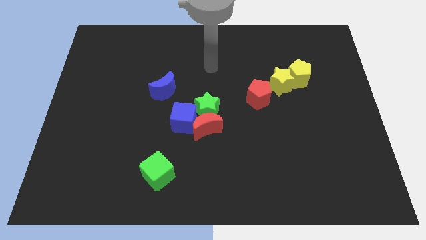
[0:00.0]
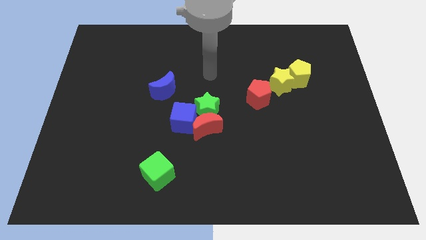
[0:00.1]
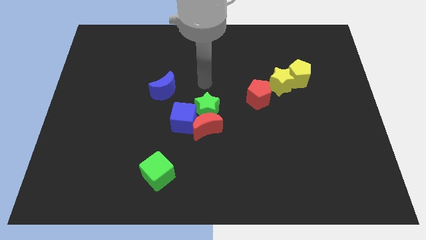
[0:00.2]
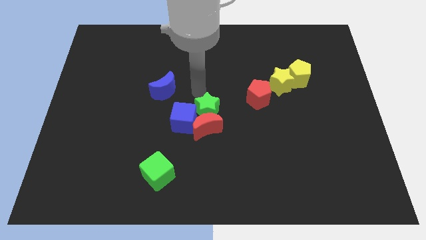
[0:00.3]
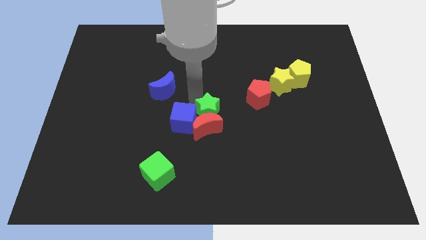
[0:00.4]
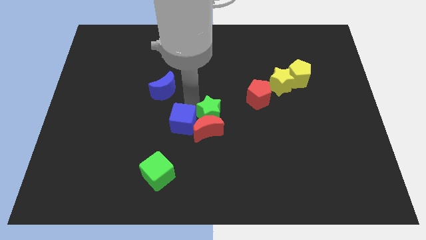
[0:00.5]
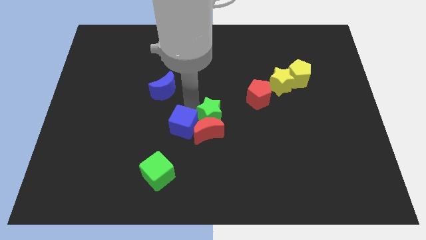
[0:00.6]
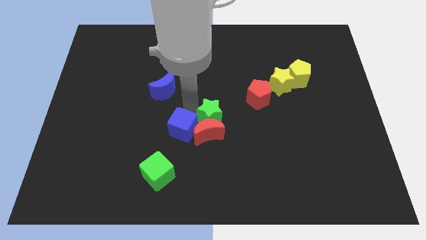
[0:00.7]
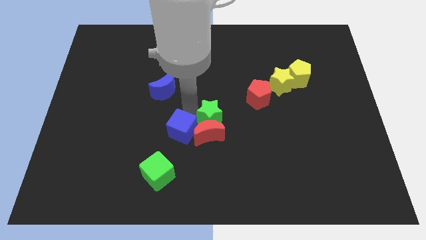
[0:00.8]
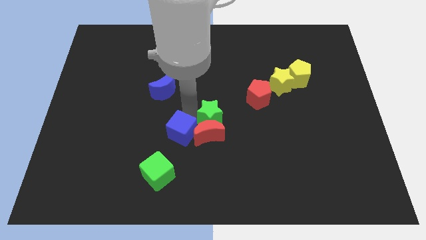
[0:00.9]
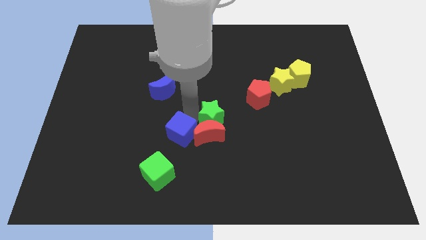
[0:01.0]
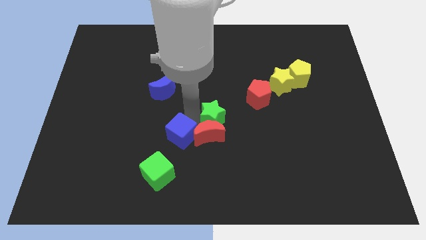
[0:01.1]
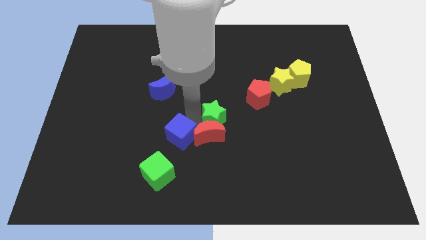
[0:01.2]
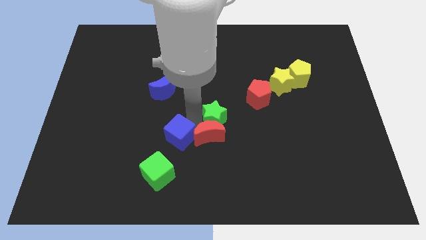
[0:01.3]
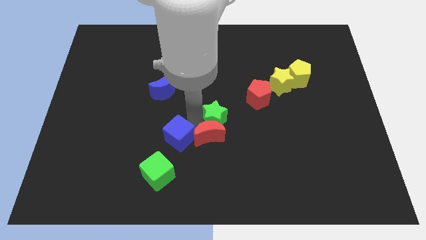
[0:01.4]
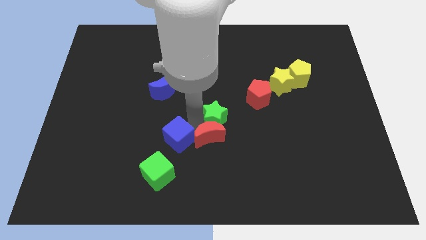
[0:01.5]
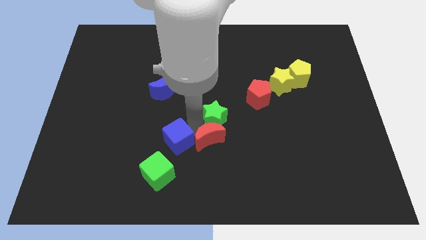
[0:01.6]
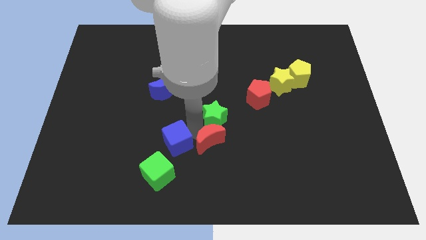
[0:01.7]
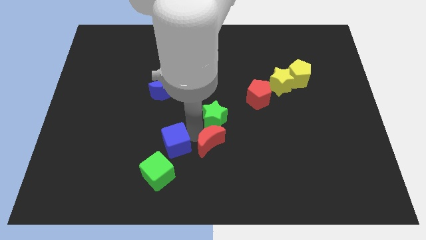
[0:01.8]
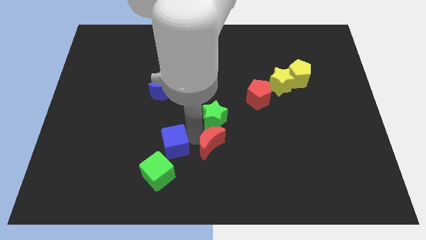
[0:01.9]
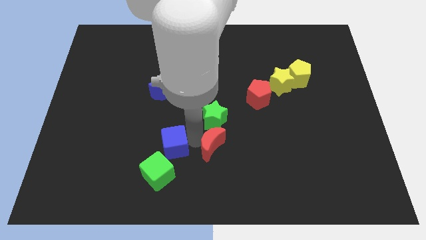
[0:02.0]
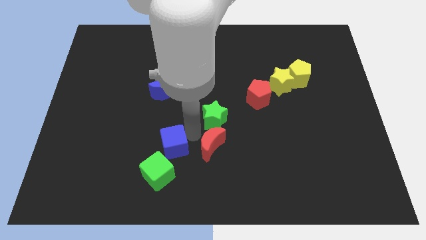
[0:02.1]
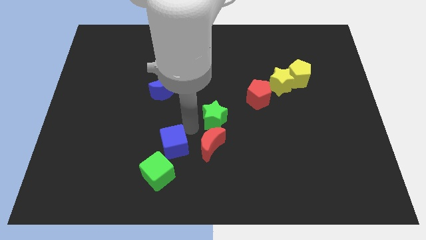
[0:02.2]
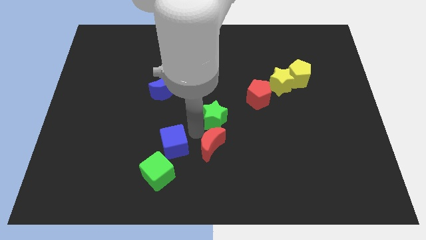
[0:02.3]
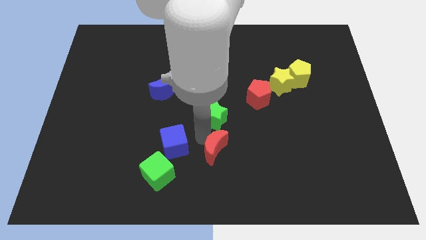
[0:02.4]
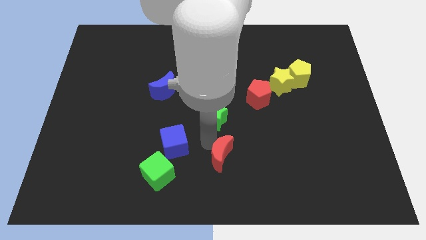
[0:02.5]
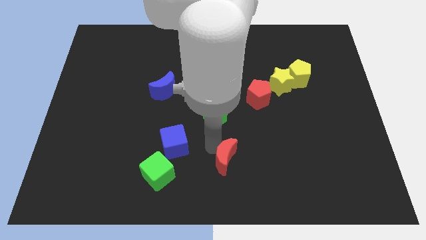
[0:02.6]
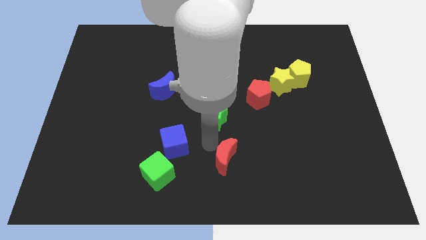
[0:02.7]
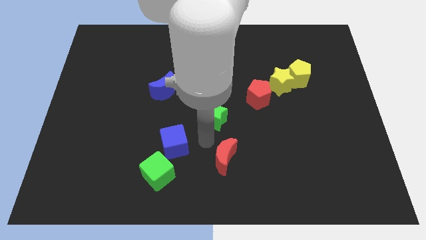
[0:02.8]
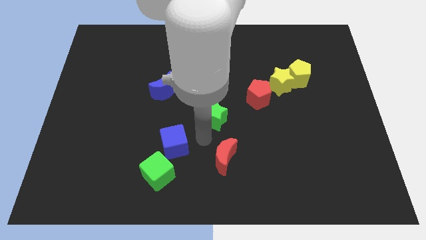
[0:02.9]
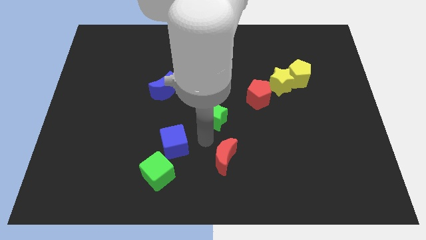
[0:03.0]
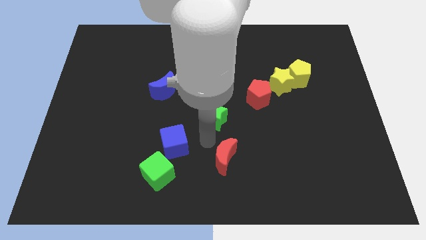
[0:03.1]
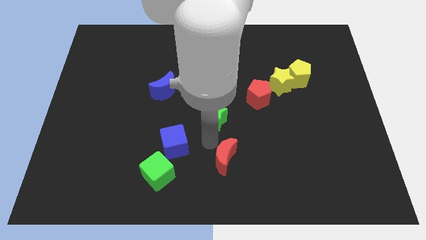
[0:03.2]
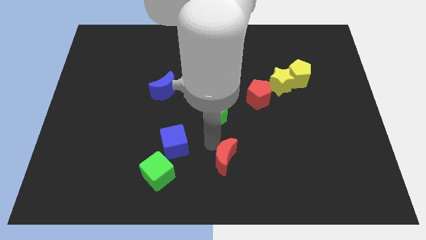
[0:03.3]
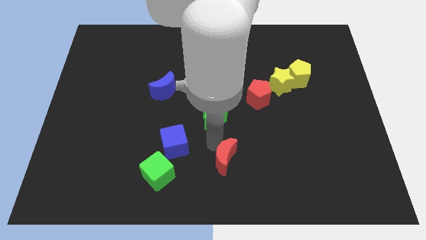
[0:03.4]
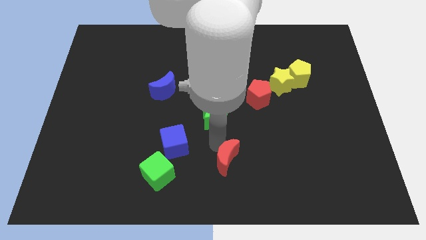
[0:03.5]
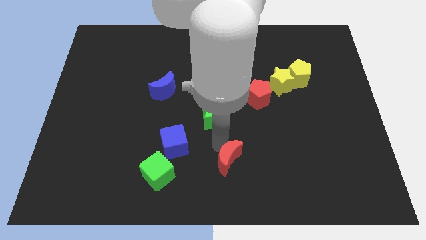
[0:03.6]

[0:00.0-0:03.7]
separate the red moon from the green star and blue cube

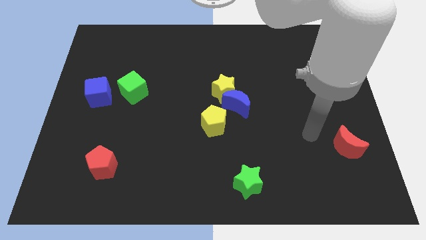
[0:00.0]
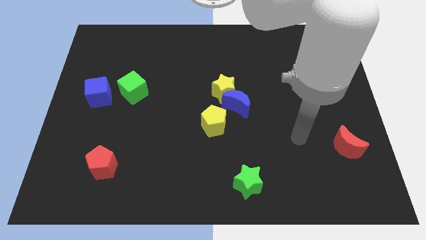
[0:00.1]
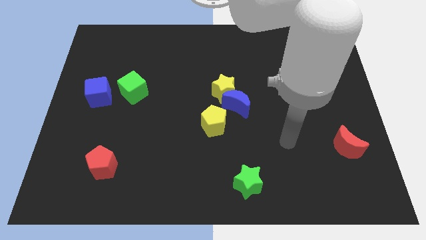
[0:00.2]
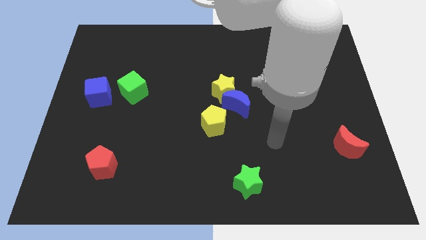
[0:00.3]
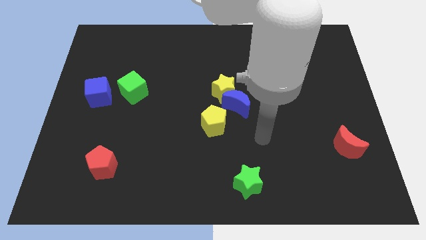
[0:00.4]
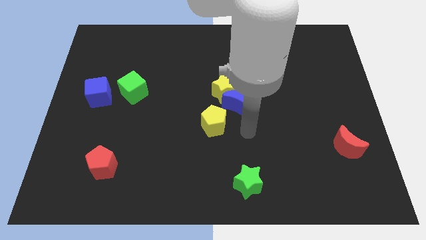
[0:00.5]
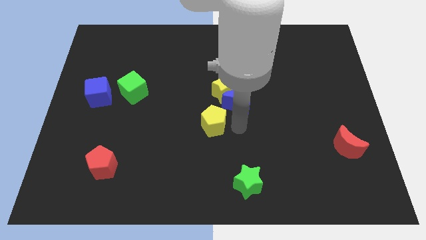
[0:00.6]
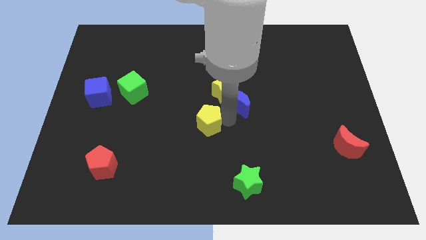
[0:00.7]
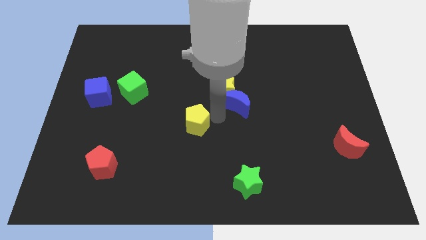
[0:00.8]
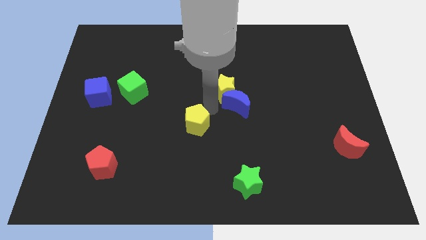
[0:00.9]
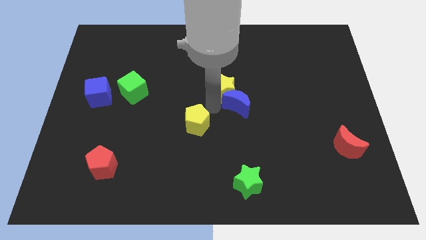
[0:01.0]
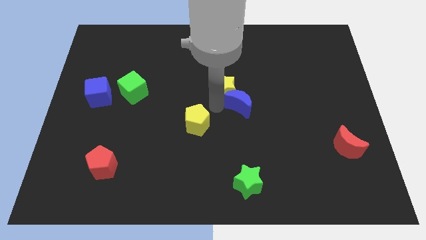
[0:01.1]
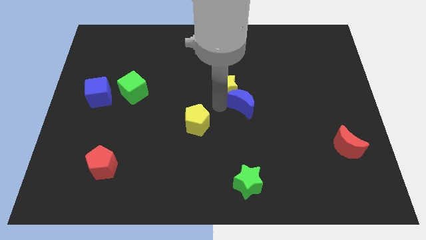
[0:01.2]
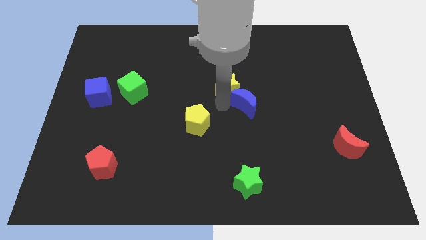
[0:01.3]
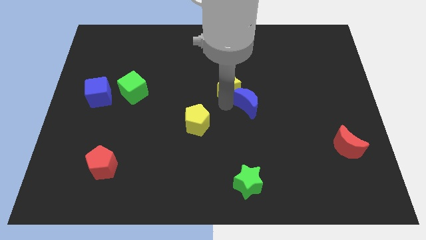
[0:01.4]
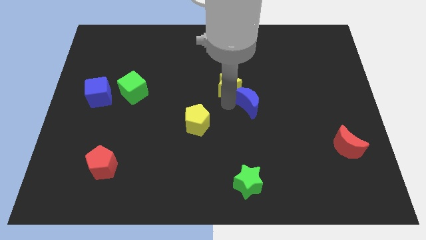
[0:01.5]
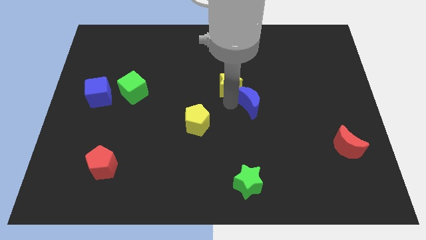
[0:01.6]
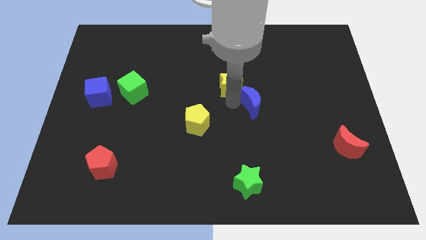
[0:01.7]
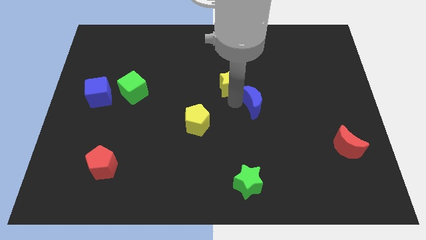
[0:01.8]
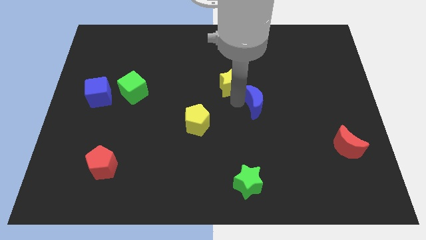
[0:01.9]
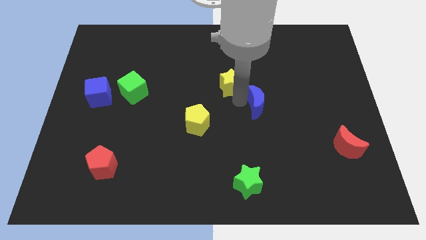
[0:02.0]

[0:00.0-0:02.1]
pull the blue moon apart from the yellow star and yellow pentagon

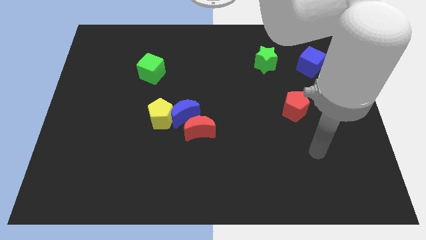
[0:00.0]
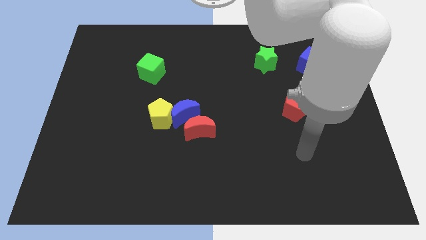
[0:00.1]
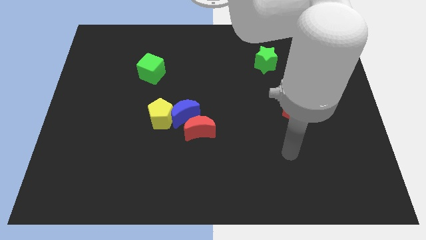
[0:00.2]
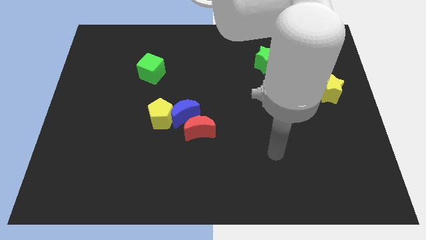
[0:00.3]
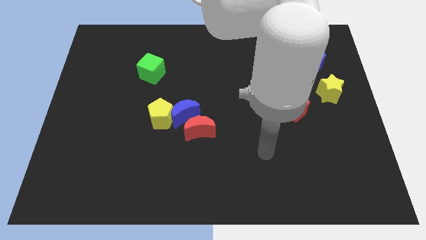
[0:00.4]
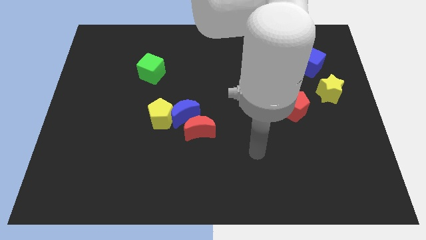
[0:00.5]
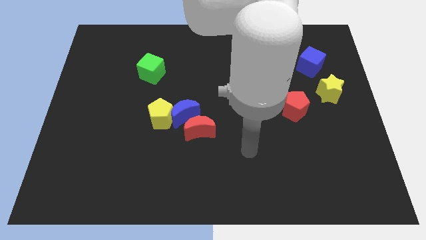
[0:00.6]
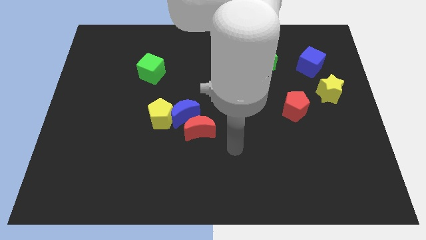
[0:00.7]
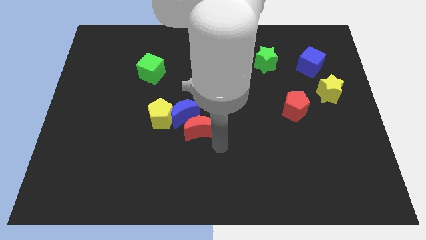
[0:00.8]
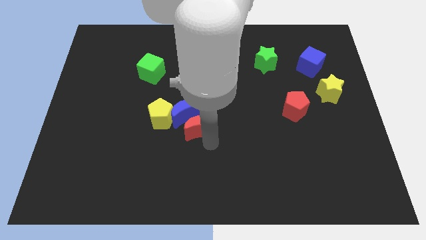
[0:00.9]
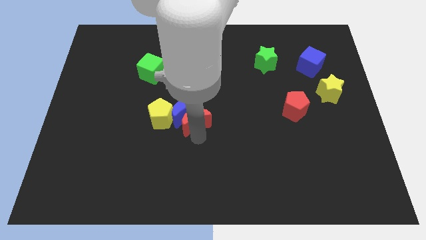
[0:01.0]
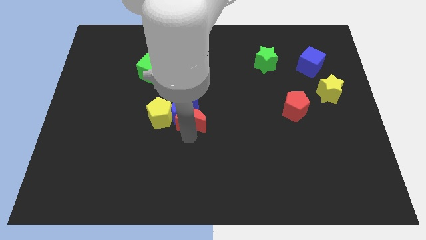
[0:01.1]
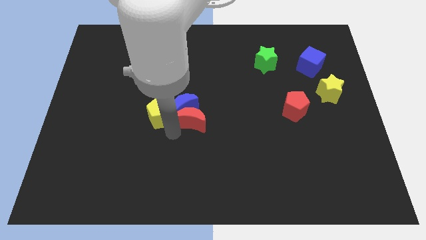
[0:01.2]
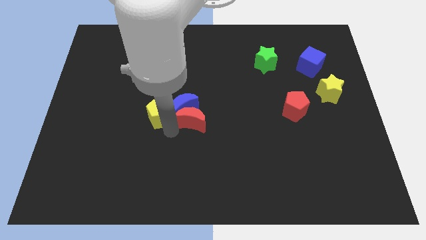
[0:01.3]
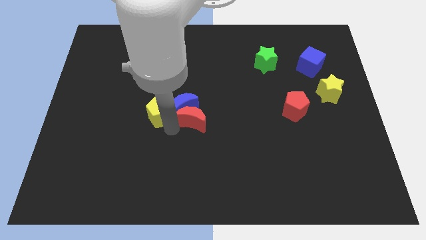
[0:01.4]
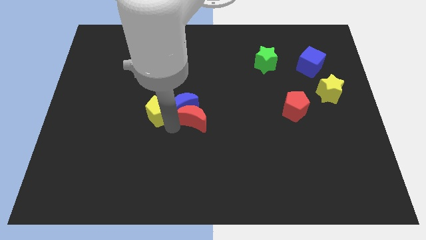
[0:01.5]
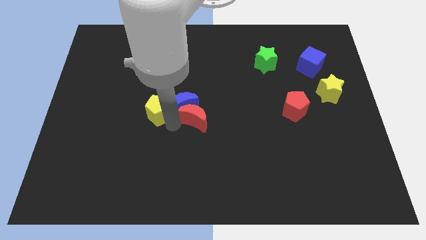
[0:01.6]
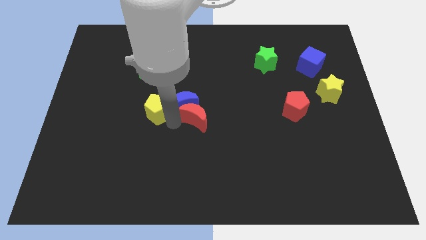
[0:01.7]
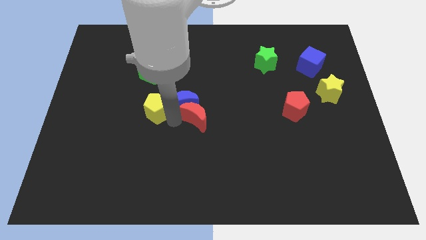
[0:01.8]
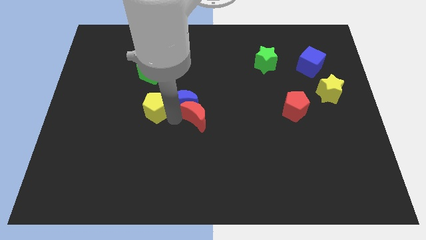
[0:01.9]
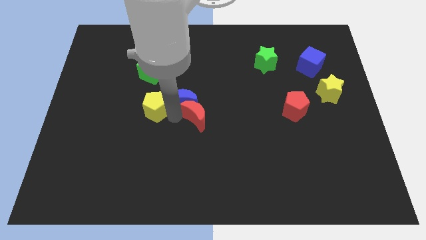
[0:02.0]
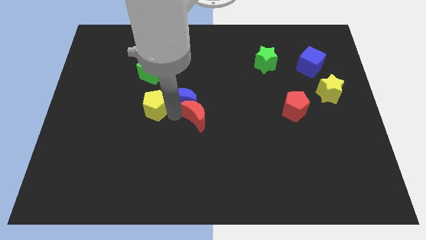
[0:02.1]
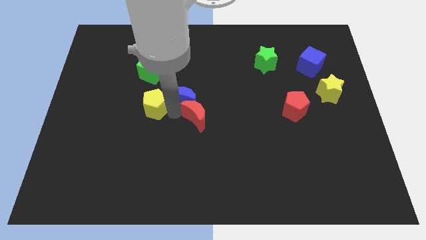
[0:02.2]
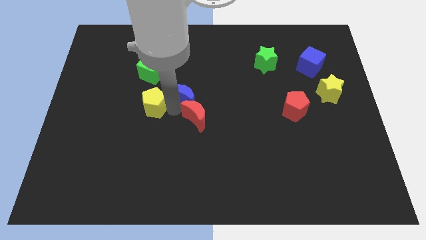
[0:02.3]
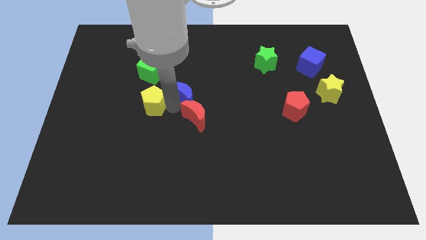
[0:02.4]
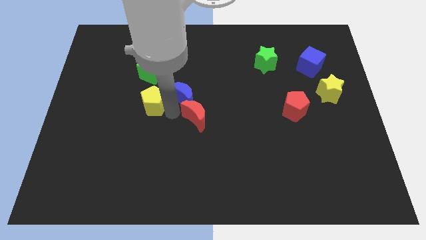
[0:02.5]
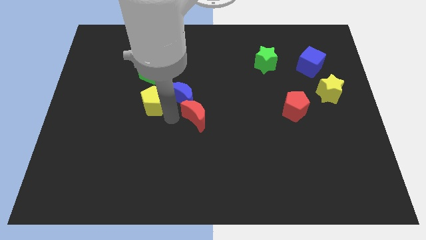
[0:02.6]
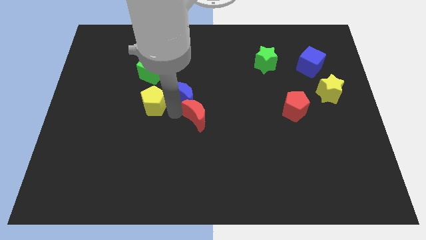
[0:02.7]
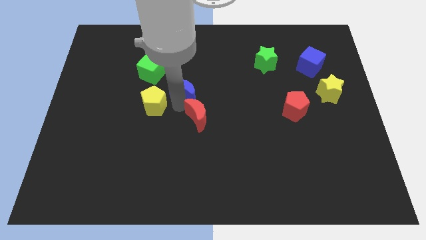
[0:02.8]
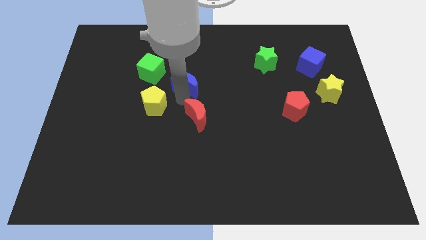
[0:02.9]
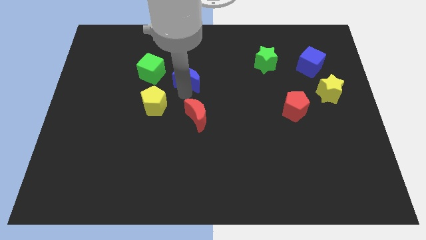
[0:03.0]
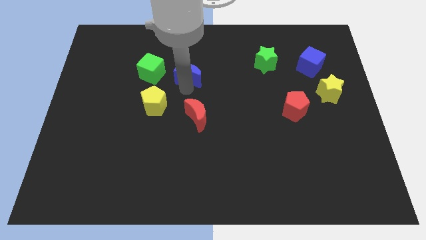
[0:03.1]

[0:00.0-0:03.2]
pull the blue moon apart from the yellow pentagon and red moon

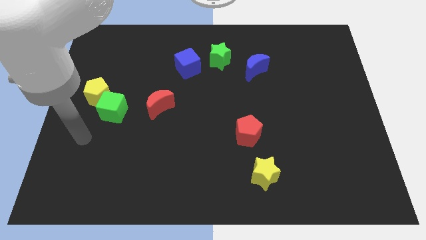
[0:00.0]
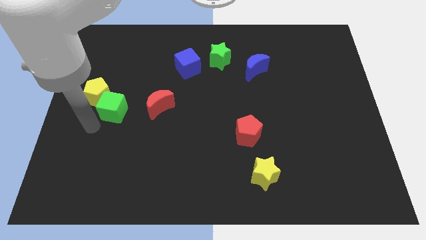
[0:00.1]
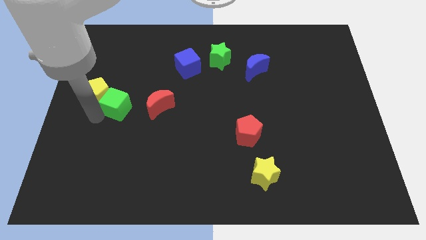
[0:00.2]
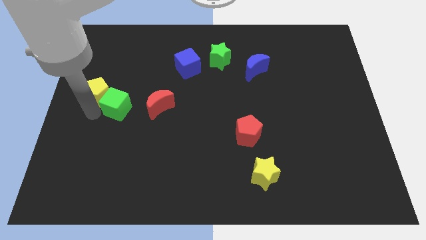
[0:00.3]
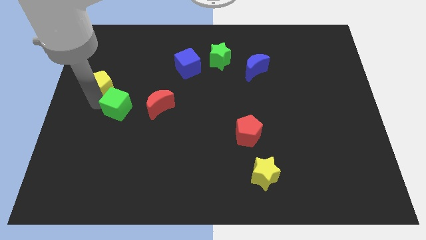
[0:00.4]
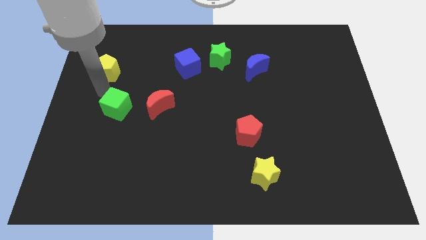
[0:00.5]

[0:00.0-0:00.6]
separate the green cube from the yellow pentagon
